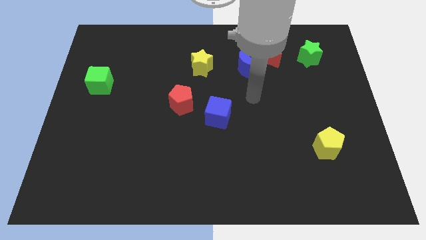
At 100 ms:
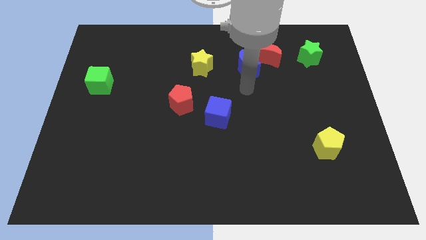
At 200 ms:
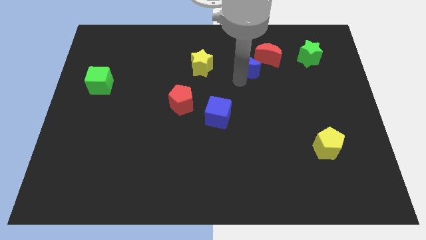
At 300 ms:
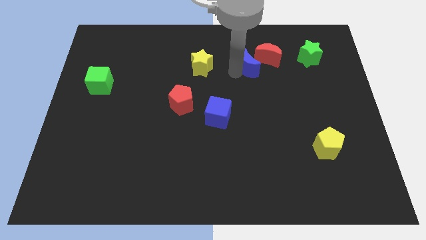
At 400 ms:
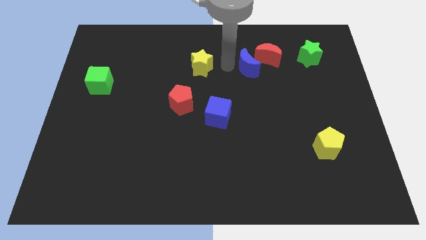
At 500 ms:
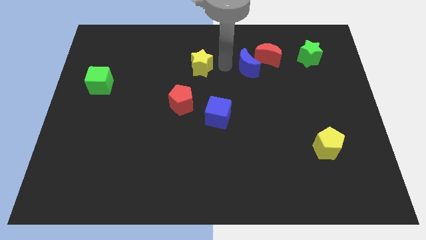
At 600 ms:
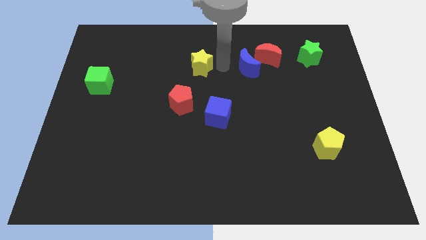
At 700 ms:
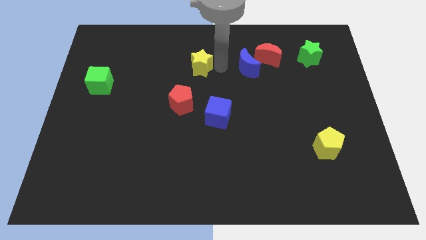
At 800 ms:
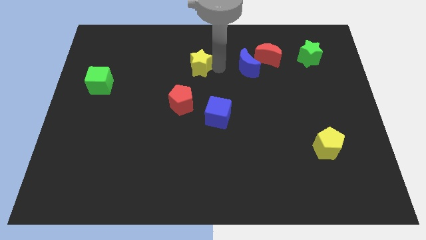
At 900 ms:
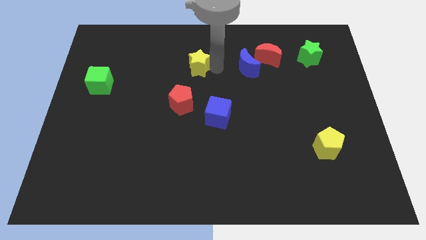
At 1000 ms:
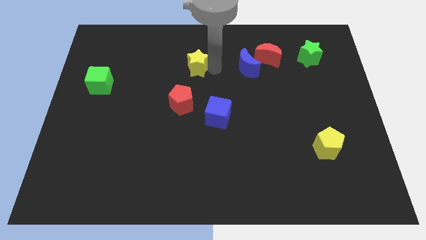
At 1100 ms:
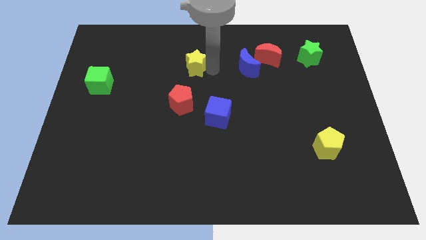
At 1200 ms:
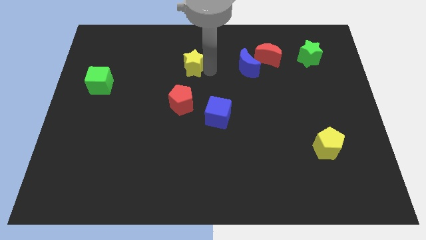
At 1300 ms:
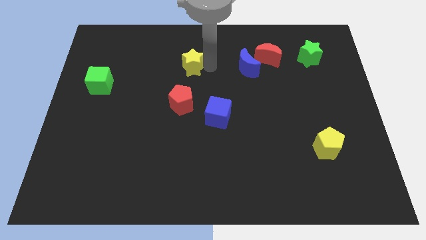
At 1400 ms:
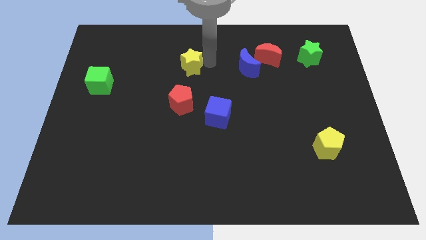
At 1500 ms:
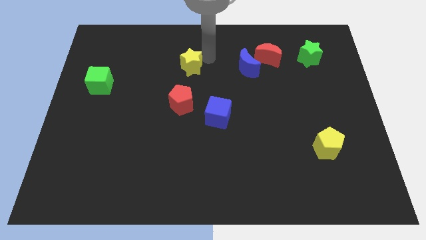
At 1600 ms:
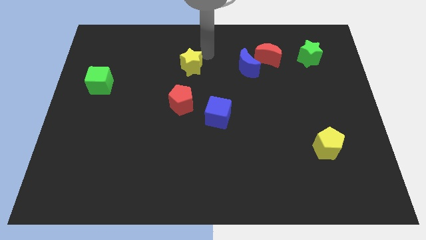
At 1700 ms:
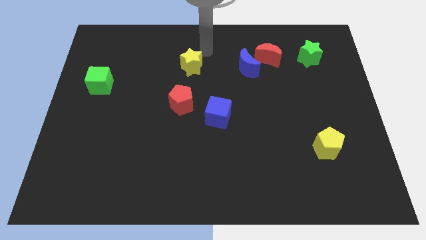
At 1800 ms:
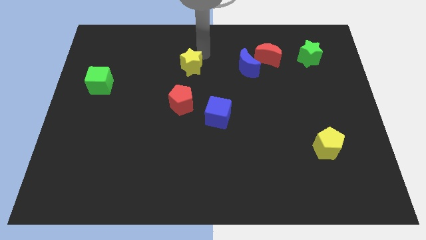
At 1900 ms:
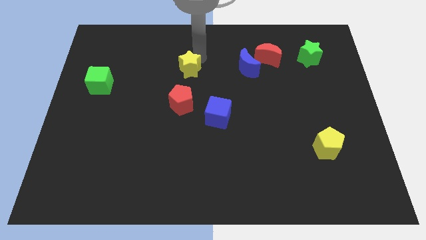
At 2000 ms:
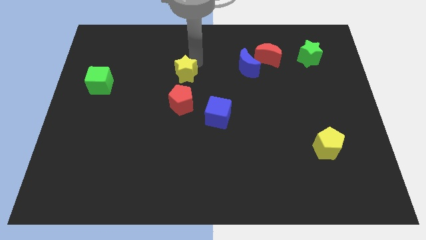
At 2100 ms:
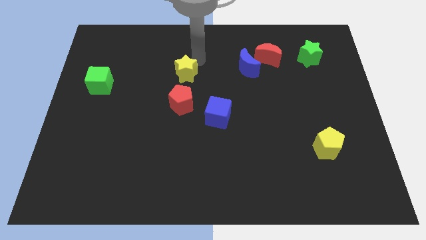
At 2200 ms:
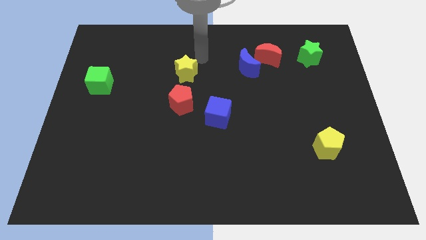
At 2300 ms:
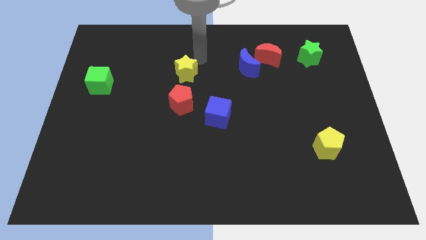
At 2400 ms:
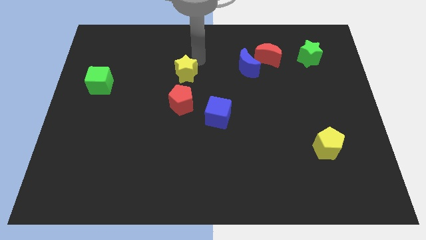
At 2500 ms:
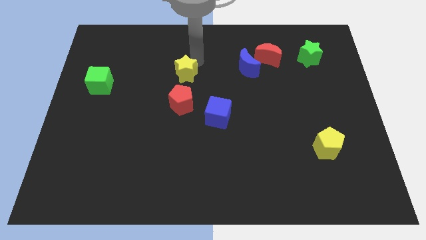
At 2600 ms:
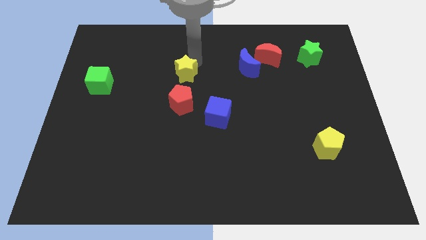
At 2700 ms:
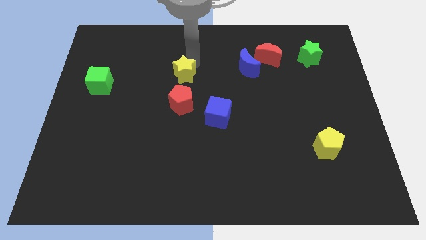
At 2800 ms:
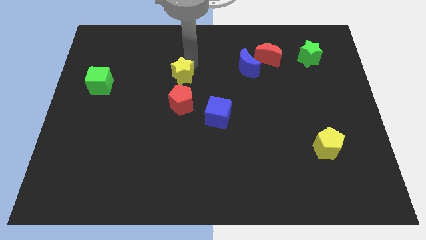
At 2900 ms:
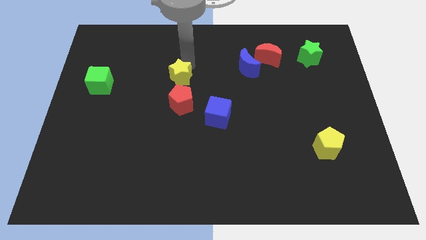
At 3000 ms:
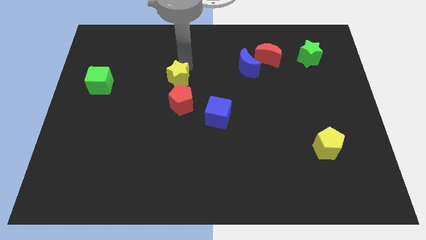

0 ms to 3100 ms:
slightly push the yellow star downwards and then left

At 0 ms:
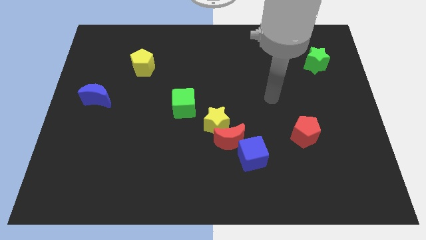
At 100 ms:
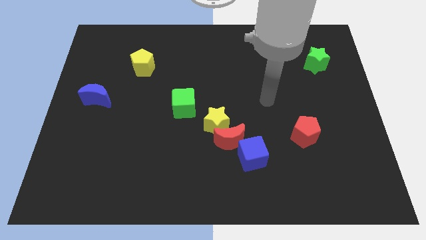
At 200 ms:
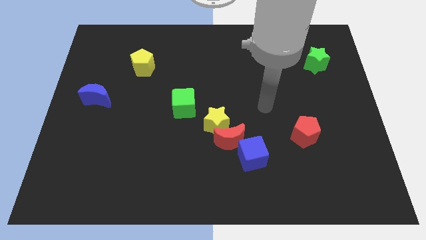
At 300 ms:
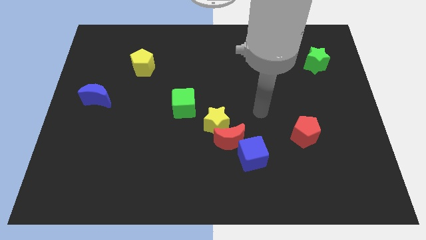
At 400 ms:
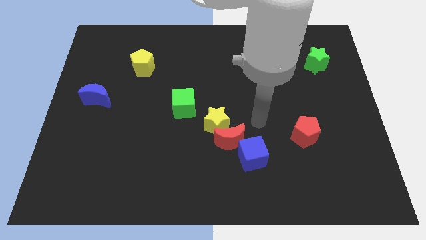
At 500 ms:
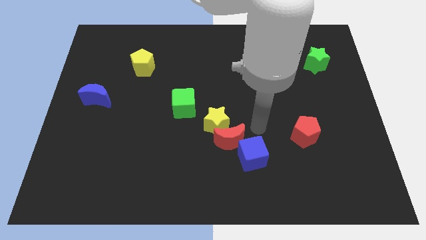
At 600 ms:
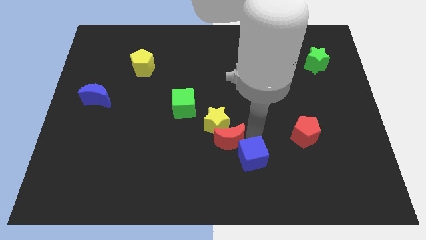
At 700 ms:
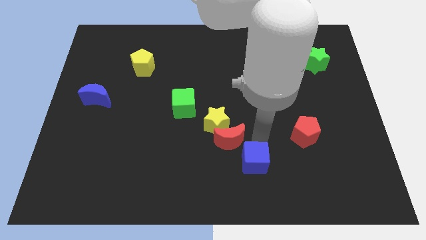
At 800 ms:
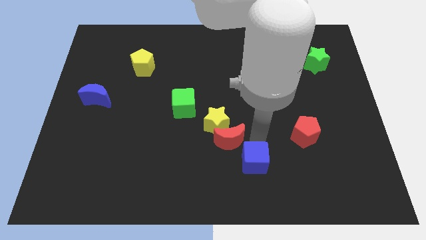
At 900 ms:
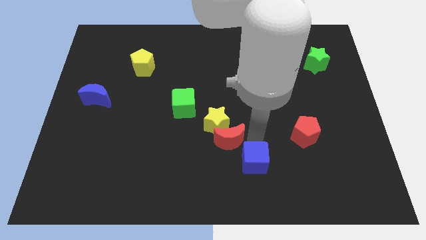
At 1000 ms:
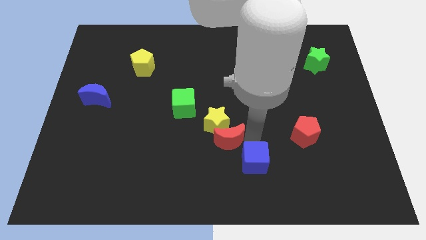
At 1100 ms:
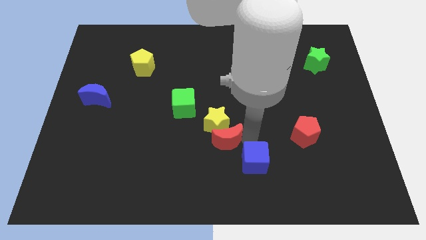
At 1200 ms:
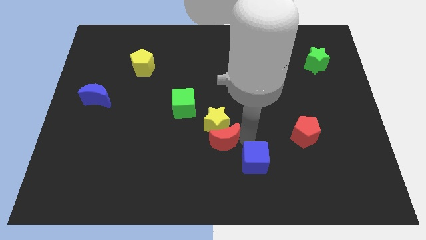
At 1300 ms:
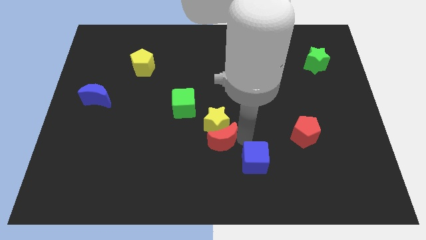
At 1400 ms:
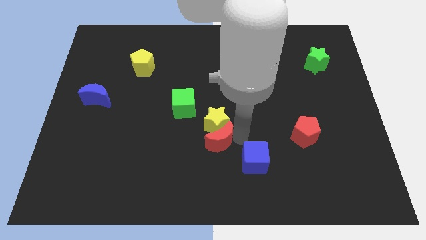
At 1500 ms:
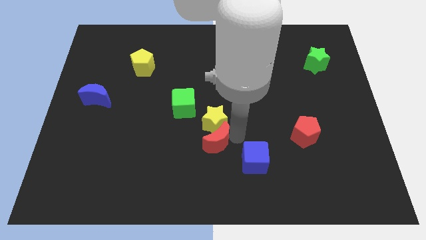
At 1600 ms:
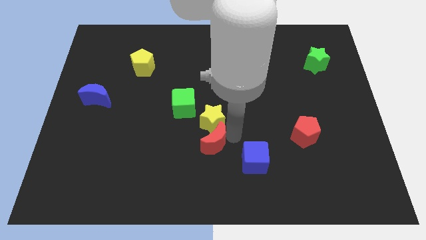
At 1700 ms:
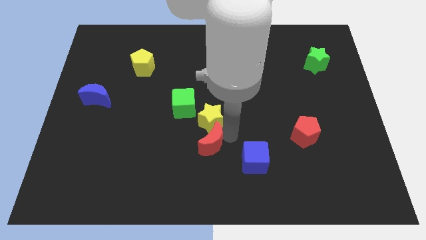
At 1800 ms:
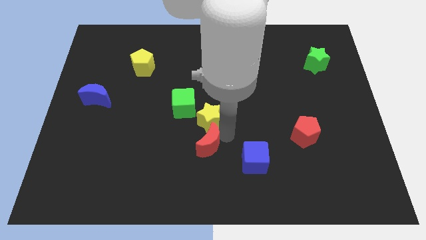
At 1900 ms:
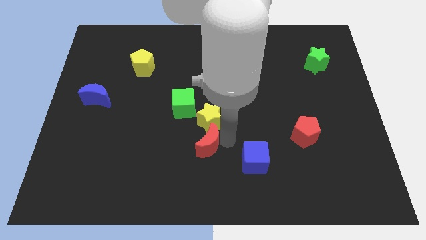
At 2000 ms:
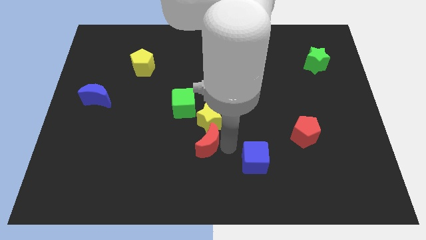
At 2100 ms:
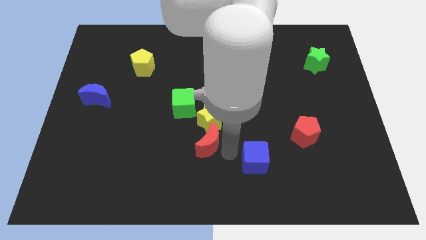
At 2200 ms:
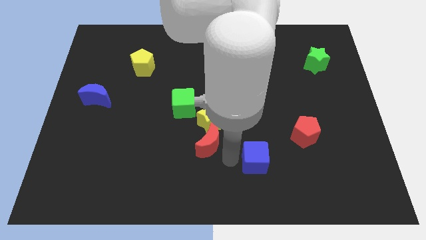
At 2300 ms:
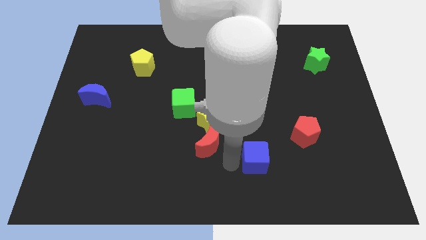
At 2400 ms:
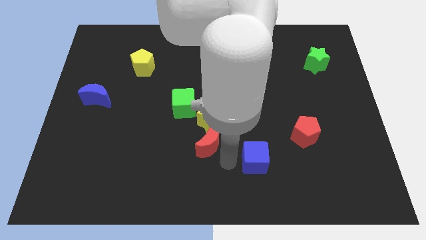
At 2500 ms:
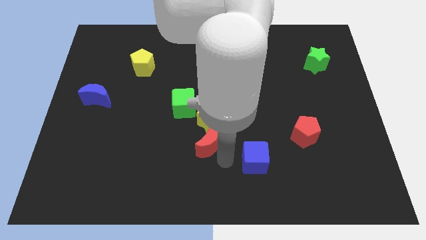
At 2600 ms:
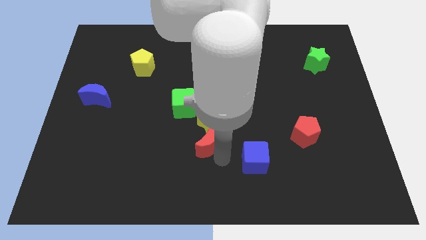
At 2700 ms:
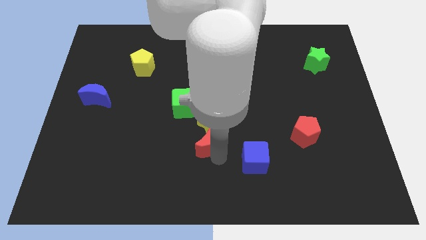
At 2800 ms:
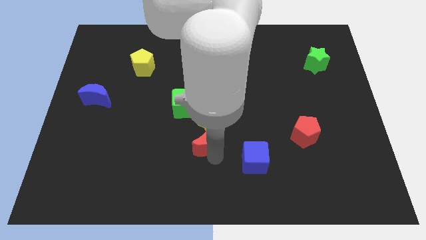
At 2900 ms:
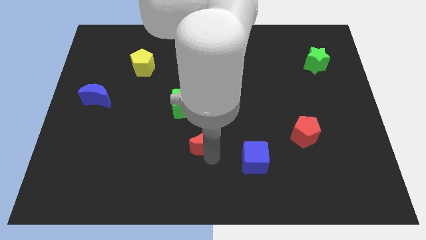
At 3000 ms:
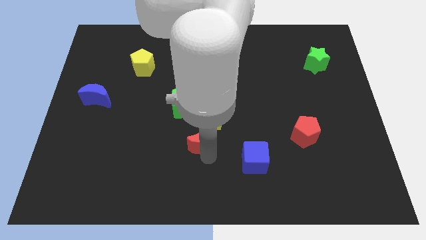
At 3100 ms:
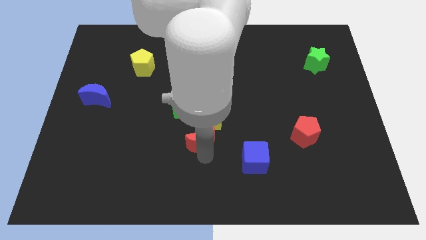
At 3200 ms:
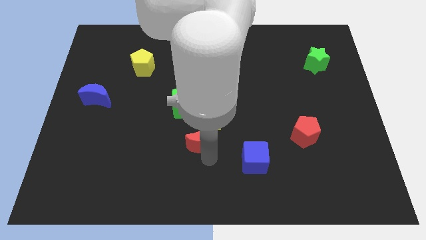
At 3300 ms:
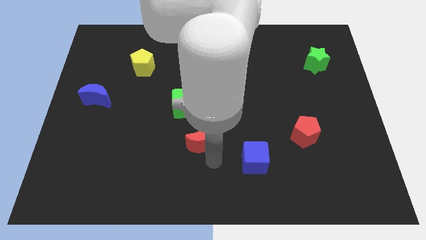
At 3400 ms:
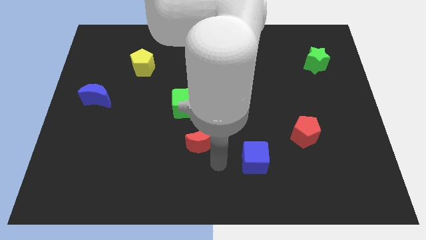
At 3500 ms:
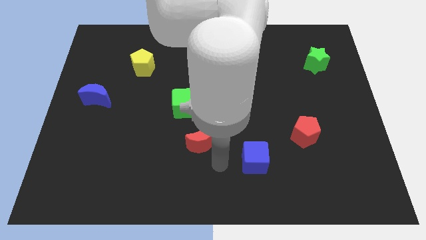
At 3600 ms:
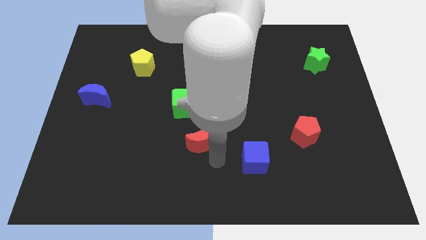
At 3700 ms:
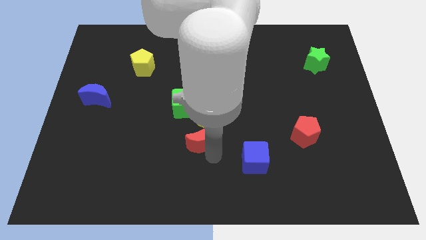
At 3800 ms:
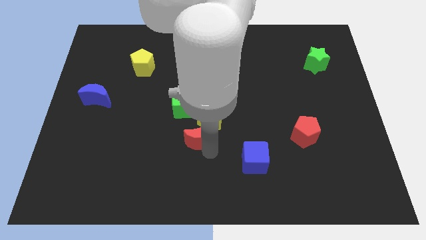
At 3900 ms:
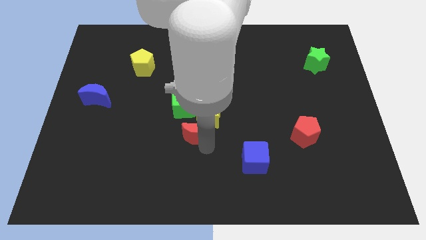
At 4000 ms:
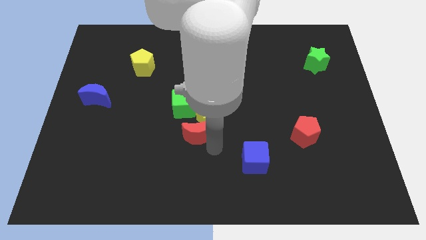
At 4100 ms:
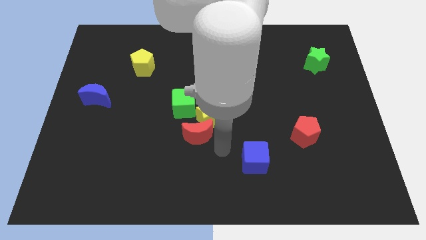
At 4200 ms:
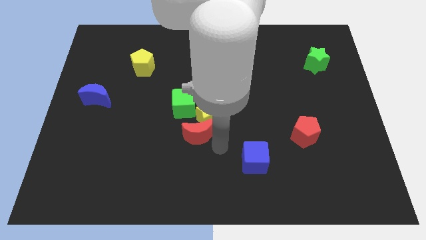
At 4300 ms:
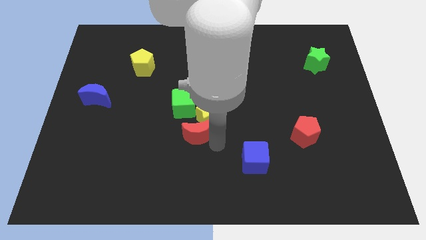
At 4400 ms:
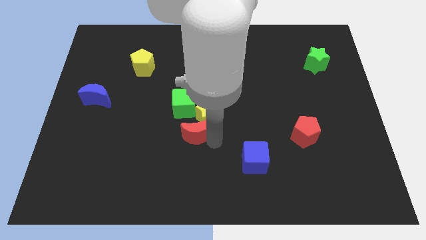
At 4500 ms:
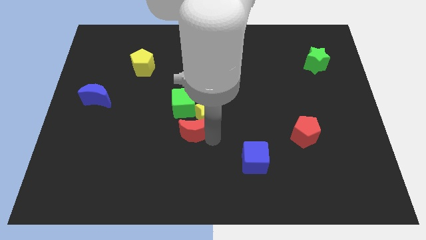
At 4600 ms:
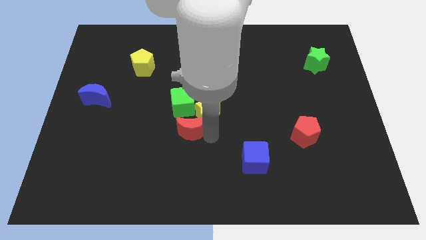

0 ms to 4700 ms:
slightly move the red moon up and left
